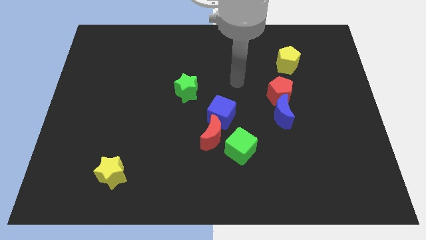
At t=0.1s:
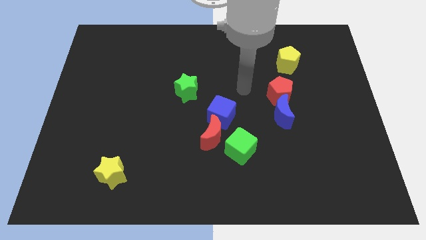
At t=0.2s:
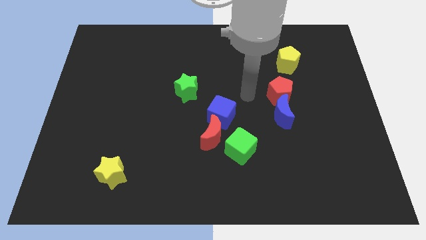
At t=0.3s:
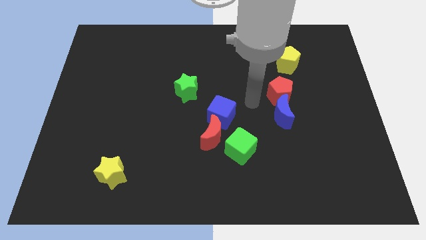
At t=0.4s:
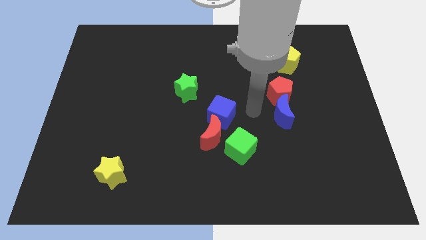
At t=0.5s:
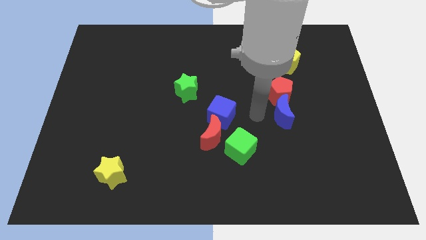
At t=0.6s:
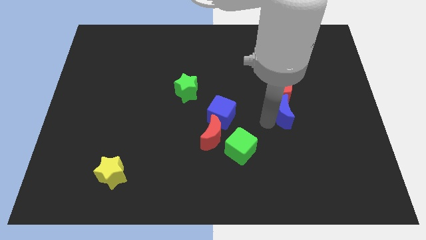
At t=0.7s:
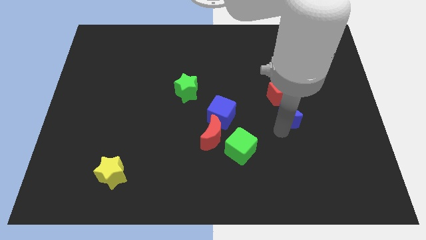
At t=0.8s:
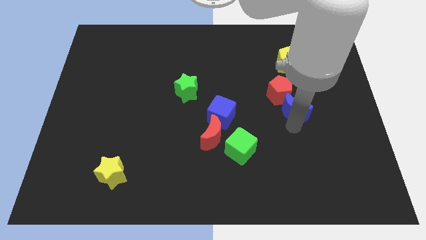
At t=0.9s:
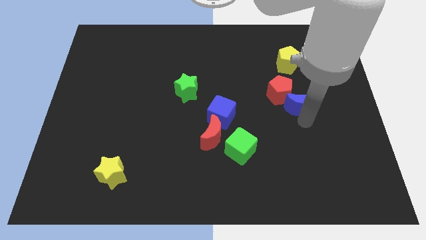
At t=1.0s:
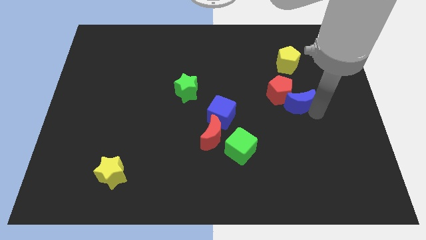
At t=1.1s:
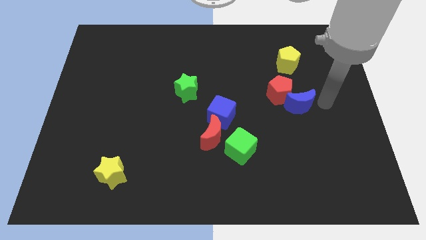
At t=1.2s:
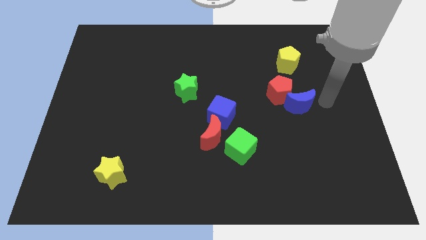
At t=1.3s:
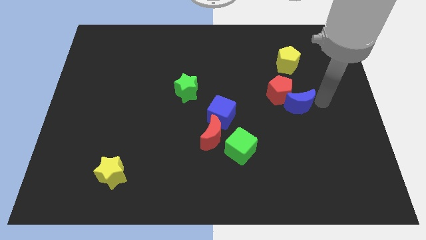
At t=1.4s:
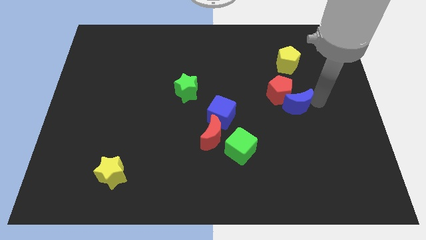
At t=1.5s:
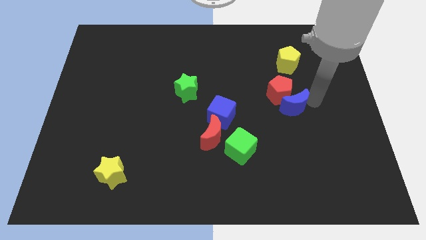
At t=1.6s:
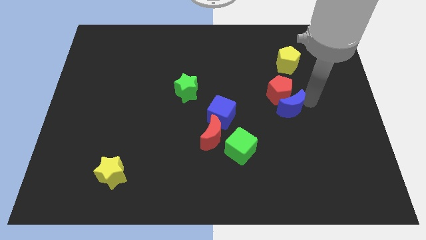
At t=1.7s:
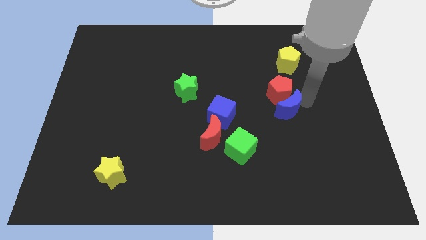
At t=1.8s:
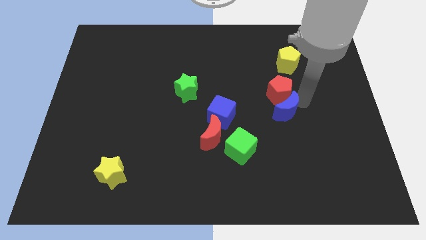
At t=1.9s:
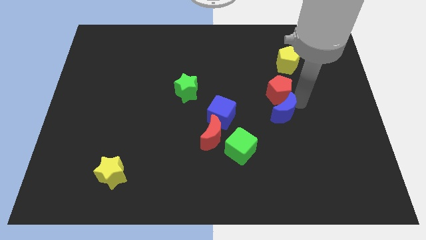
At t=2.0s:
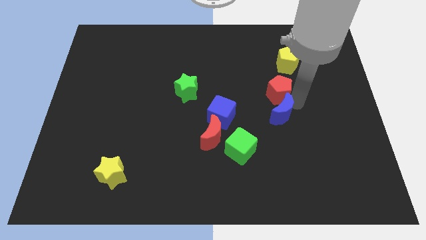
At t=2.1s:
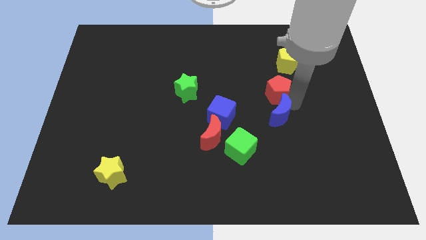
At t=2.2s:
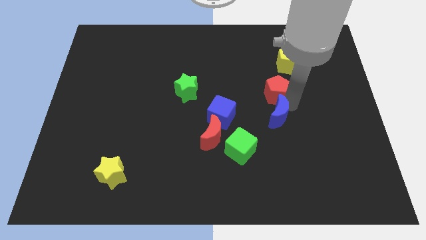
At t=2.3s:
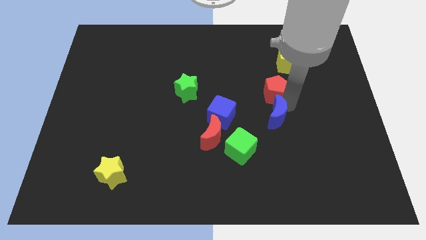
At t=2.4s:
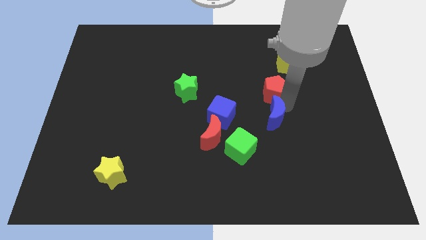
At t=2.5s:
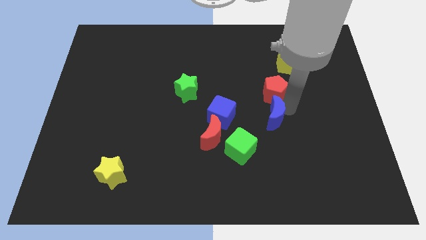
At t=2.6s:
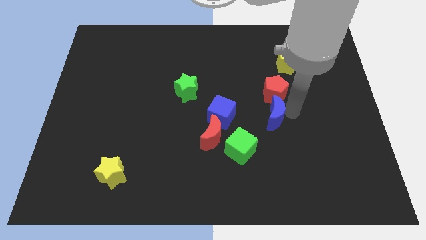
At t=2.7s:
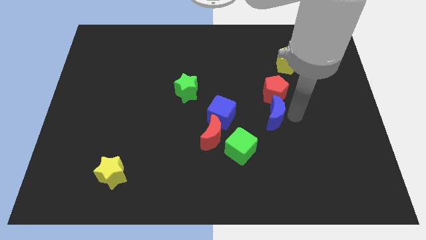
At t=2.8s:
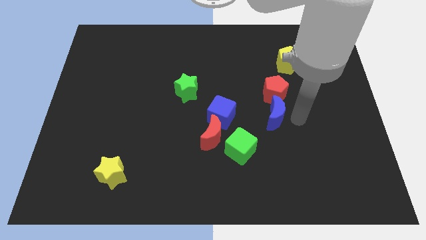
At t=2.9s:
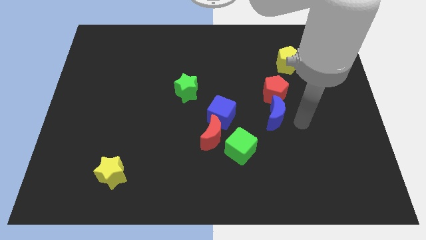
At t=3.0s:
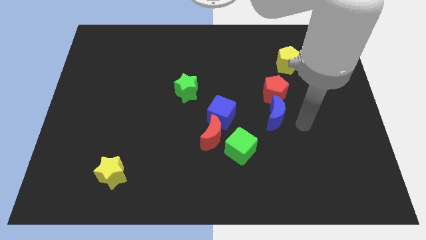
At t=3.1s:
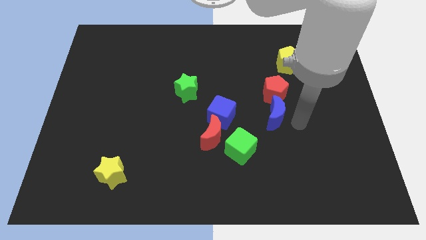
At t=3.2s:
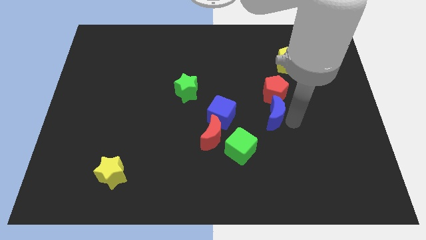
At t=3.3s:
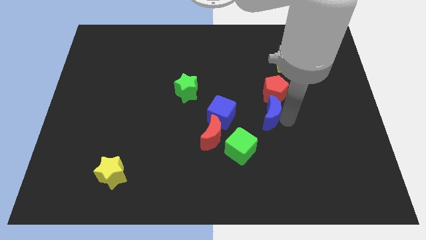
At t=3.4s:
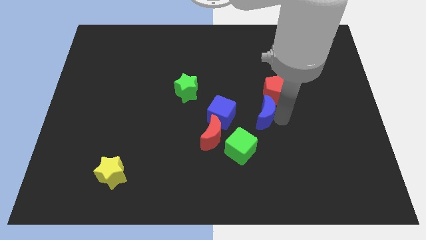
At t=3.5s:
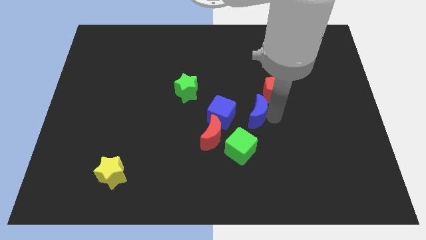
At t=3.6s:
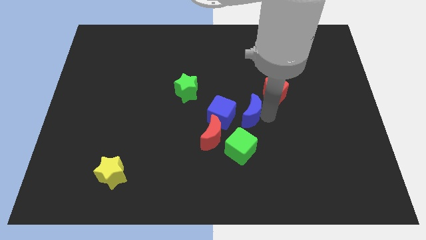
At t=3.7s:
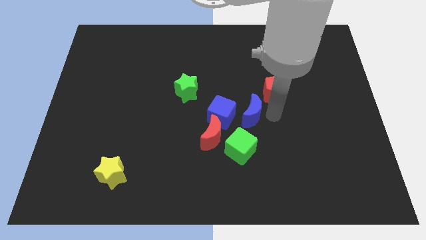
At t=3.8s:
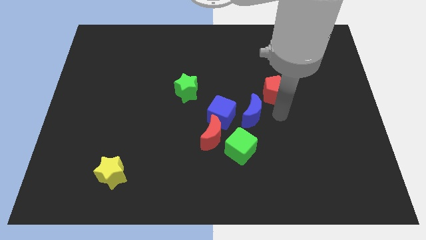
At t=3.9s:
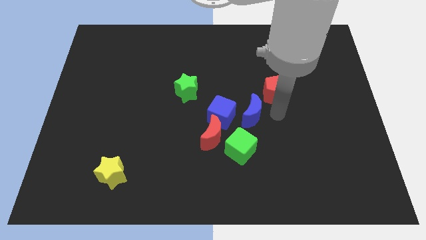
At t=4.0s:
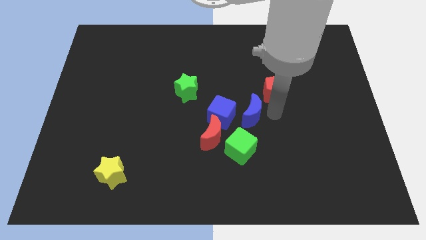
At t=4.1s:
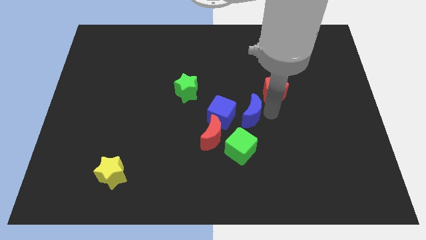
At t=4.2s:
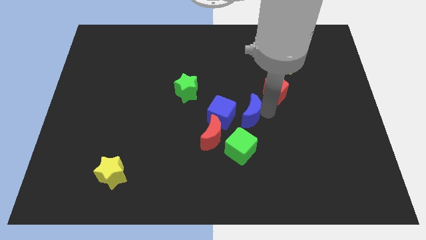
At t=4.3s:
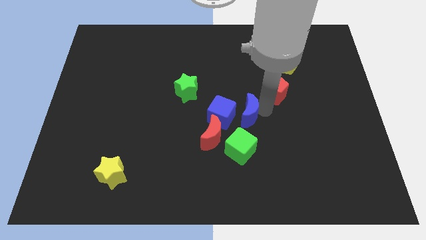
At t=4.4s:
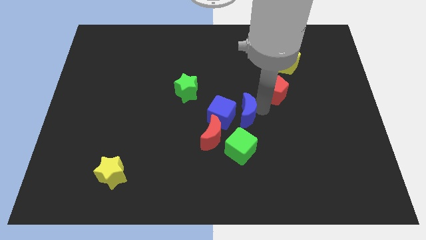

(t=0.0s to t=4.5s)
push the blue moon close to the blue cube

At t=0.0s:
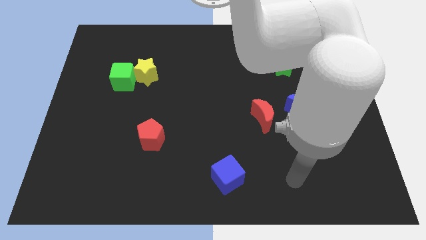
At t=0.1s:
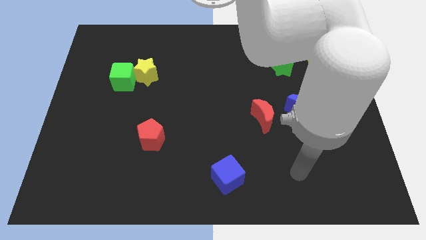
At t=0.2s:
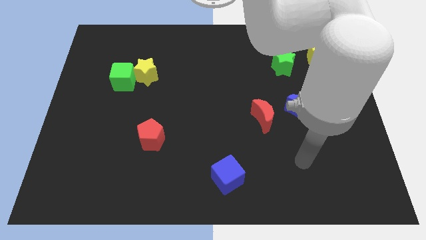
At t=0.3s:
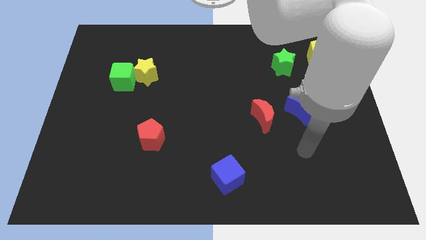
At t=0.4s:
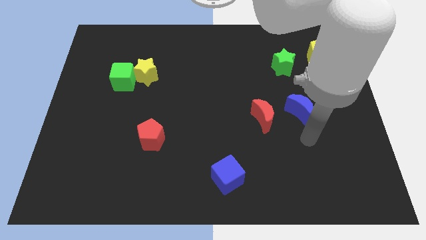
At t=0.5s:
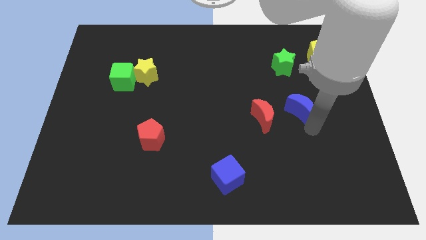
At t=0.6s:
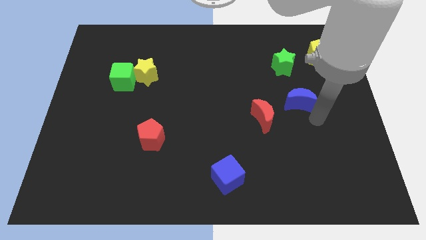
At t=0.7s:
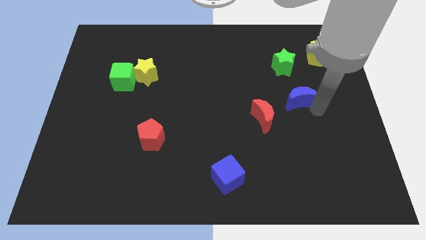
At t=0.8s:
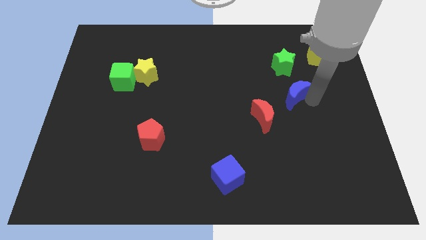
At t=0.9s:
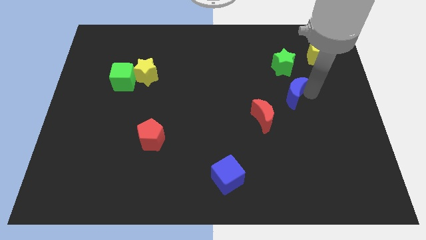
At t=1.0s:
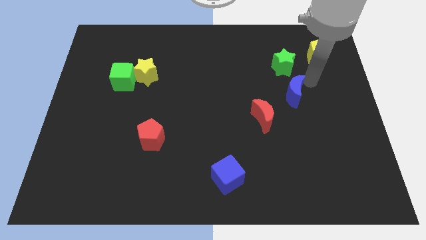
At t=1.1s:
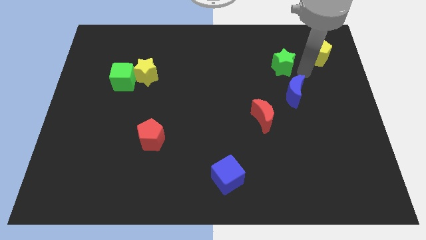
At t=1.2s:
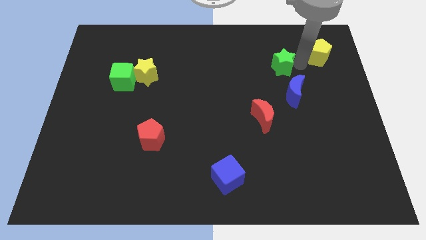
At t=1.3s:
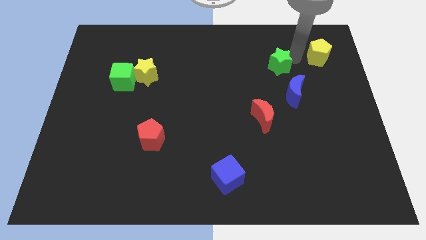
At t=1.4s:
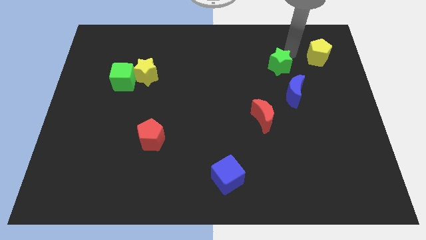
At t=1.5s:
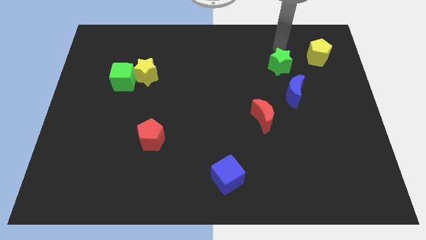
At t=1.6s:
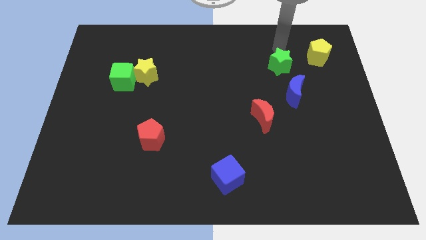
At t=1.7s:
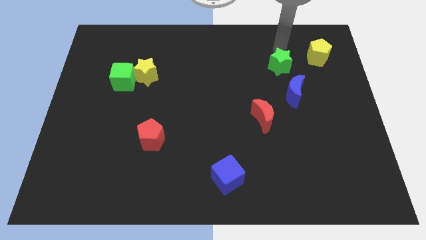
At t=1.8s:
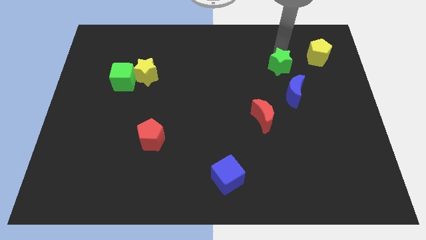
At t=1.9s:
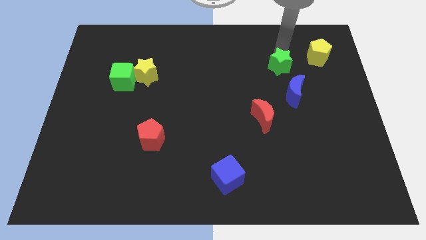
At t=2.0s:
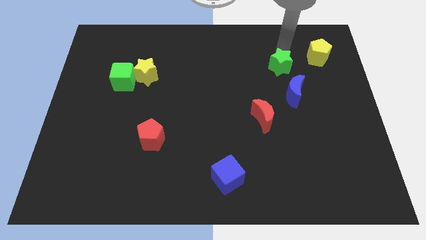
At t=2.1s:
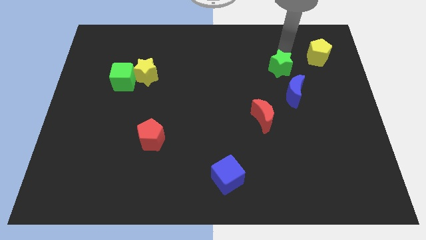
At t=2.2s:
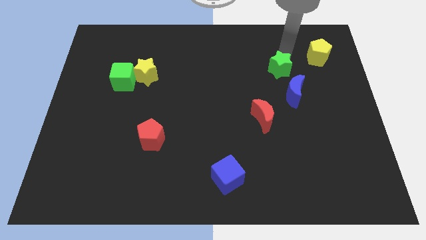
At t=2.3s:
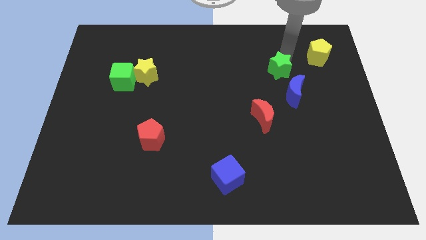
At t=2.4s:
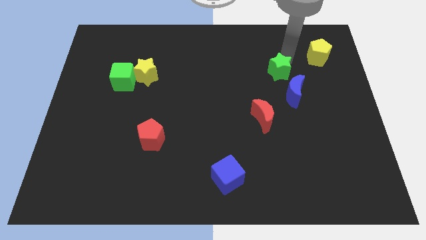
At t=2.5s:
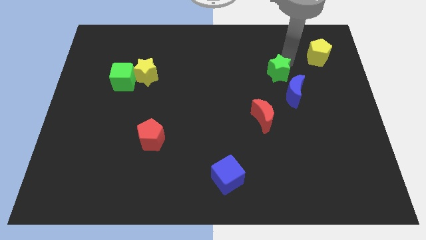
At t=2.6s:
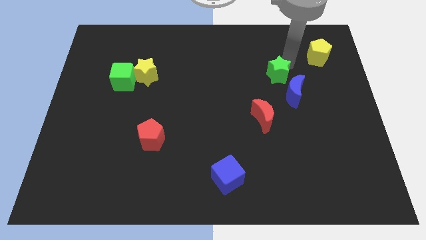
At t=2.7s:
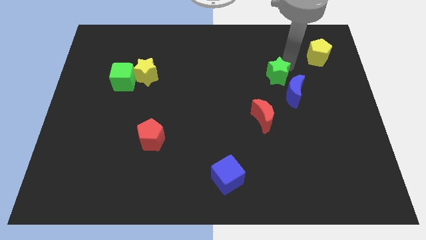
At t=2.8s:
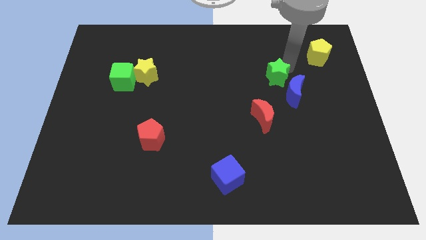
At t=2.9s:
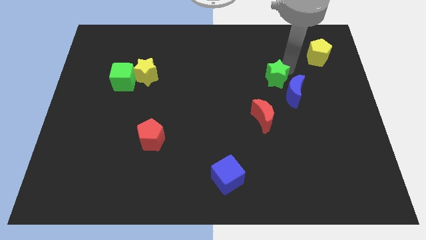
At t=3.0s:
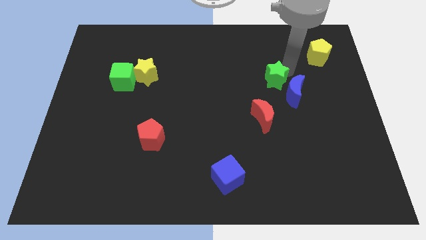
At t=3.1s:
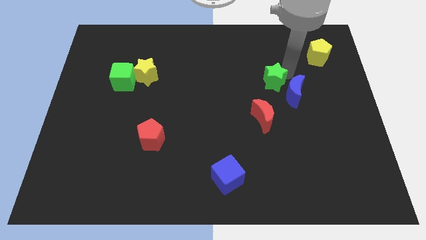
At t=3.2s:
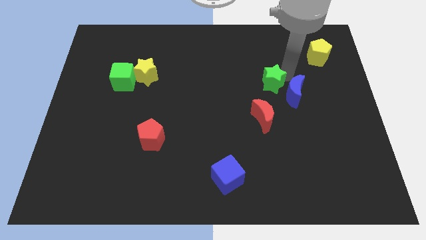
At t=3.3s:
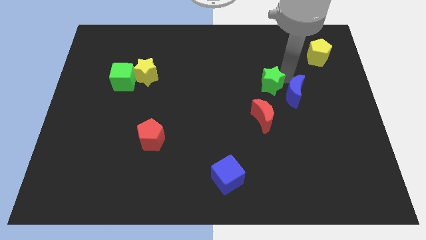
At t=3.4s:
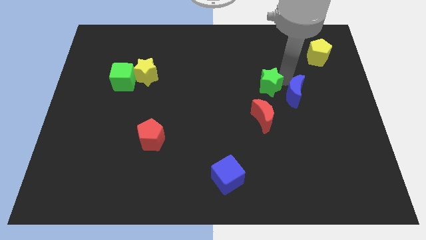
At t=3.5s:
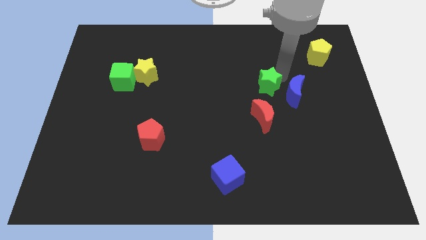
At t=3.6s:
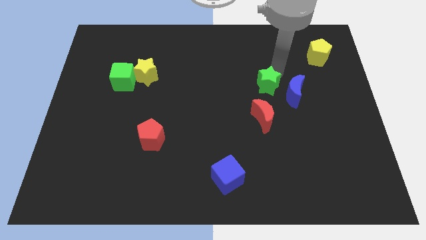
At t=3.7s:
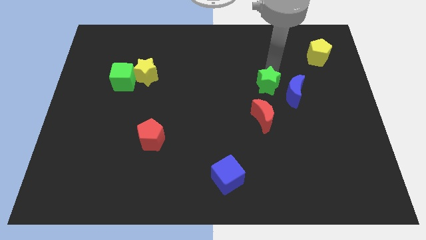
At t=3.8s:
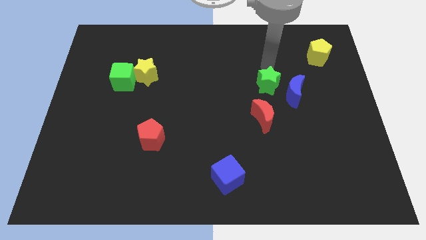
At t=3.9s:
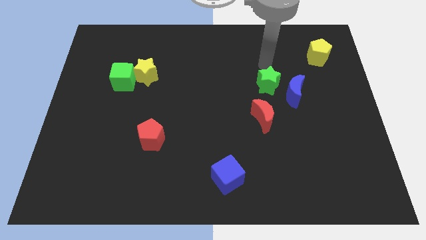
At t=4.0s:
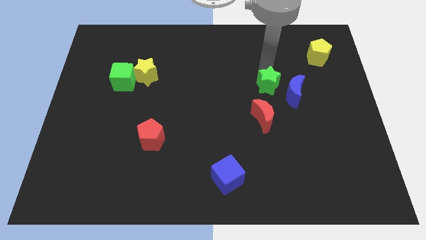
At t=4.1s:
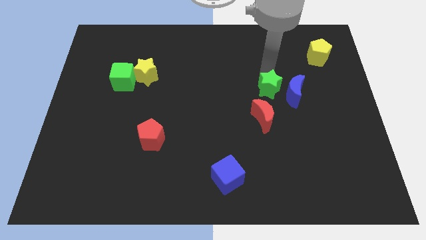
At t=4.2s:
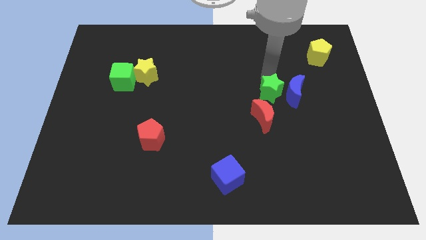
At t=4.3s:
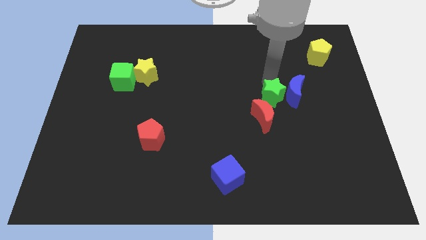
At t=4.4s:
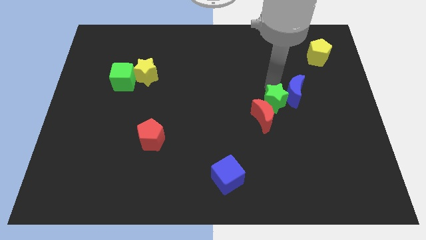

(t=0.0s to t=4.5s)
put the green star close to the red moon
